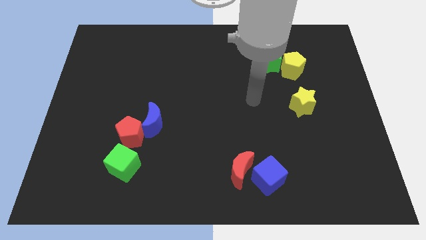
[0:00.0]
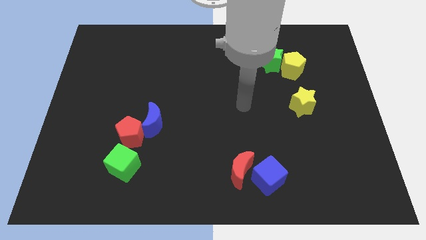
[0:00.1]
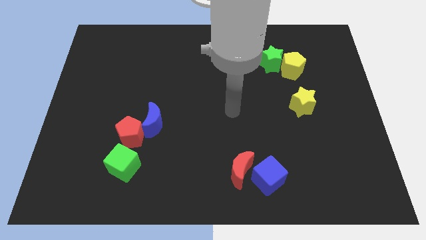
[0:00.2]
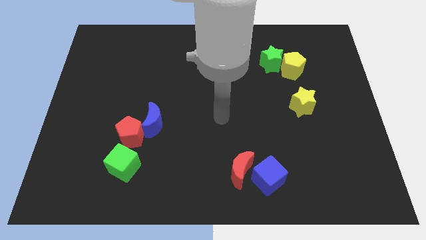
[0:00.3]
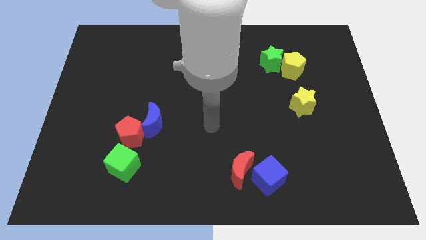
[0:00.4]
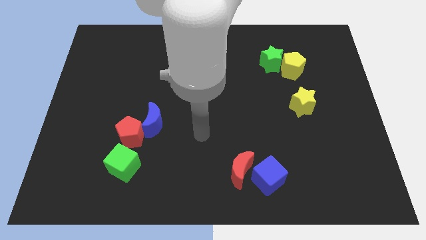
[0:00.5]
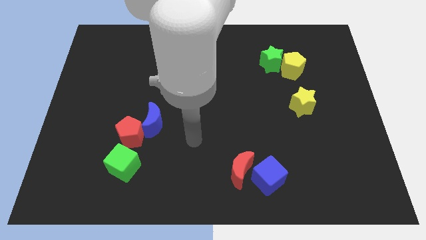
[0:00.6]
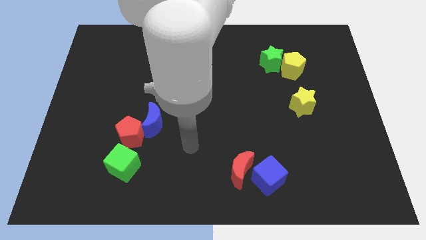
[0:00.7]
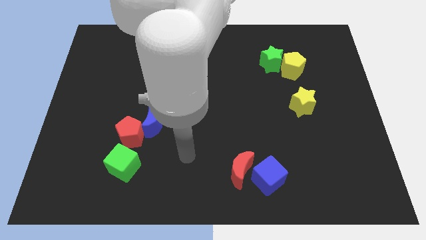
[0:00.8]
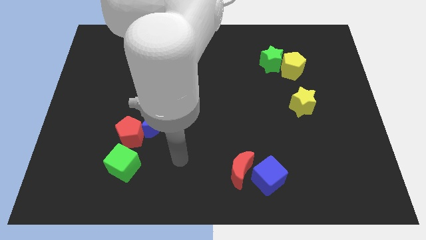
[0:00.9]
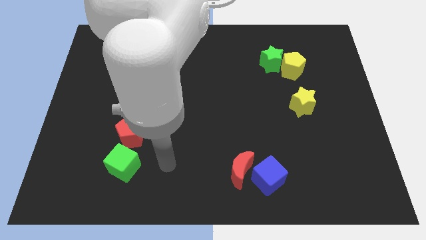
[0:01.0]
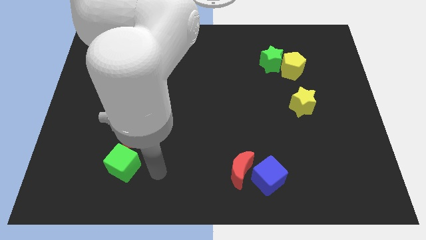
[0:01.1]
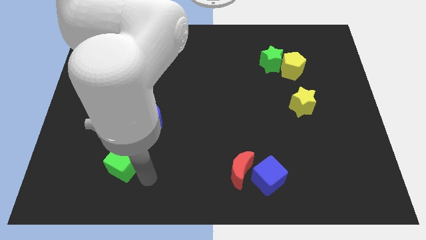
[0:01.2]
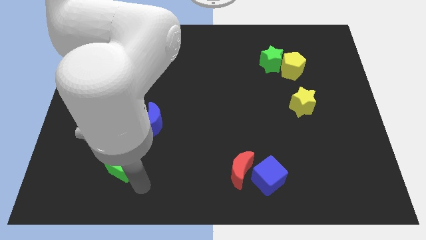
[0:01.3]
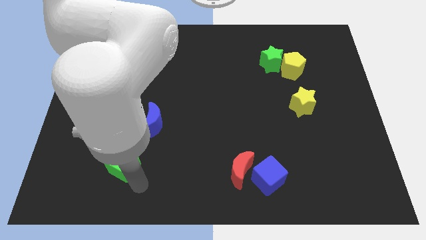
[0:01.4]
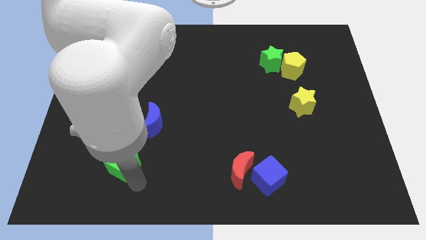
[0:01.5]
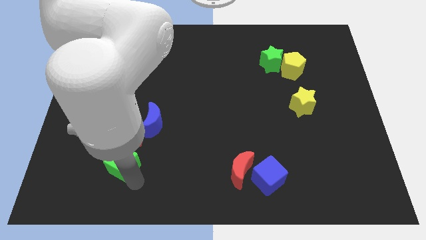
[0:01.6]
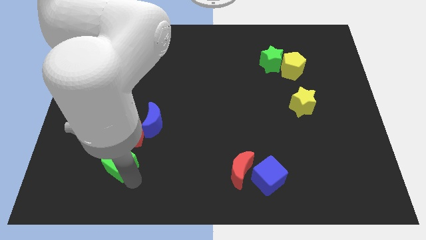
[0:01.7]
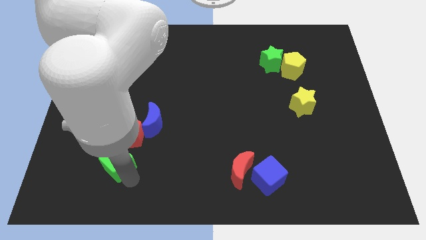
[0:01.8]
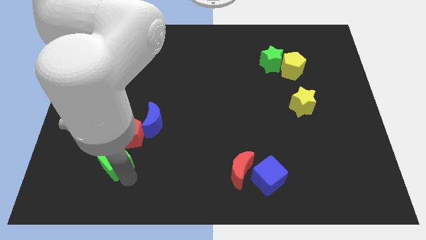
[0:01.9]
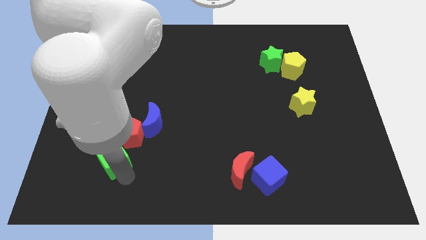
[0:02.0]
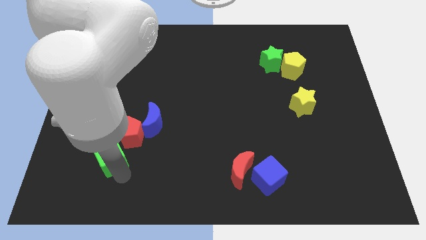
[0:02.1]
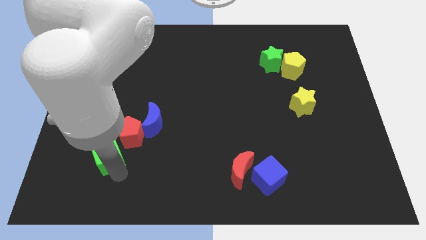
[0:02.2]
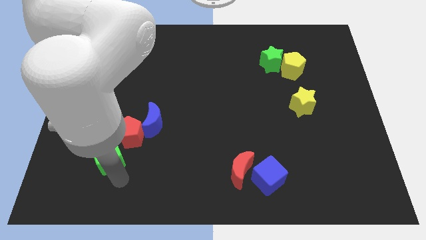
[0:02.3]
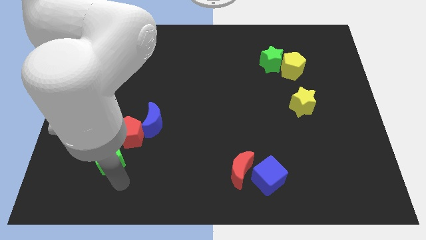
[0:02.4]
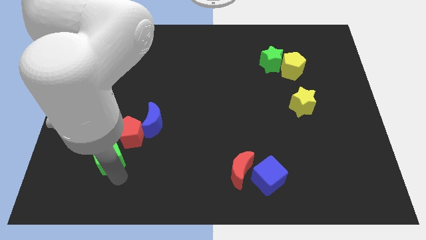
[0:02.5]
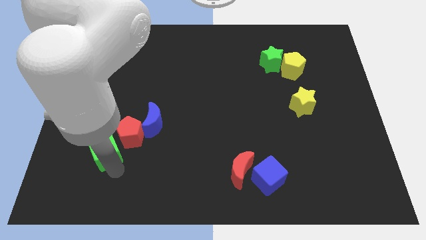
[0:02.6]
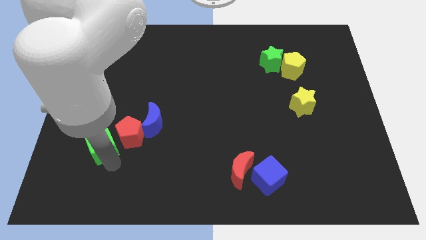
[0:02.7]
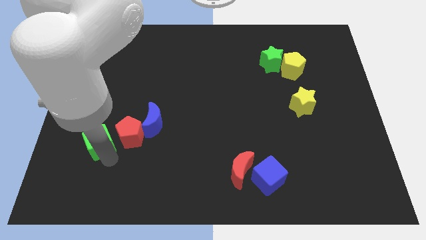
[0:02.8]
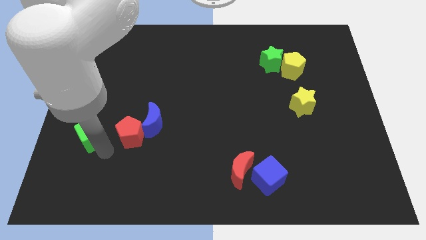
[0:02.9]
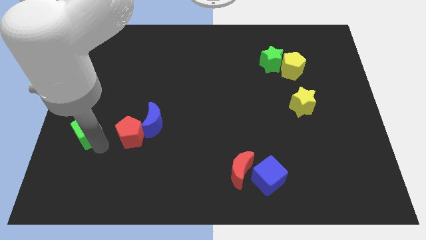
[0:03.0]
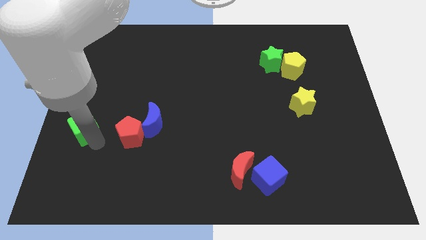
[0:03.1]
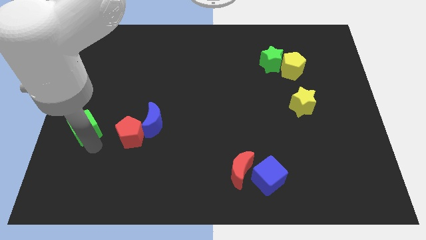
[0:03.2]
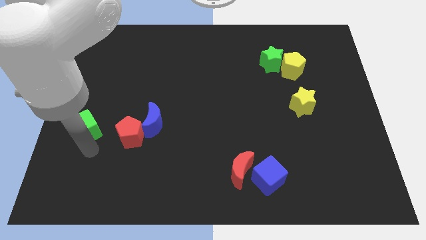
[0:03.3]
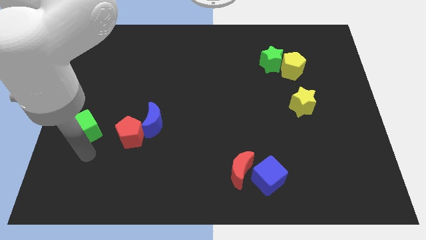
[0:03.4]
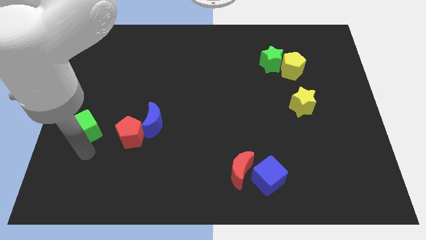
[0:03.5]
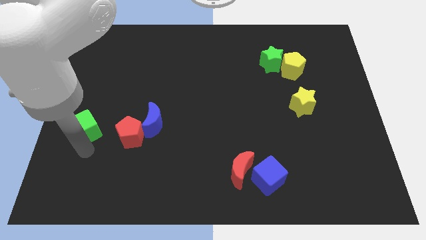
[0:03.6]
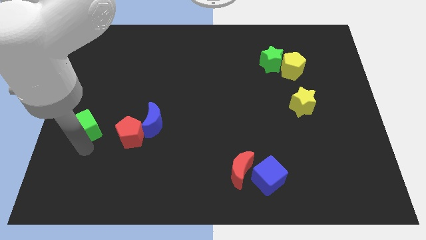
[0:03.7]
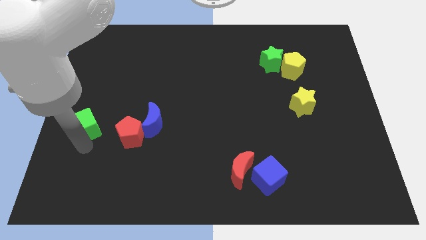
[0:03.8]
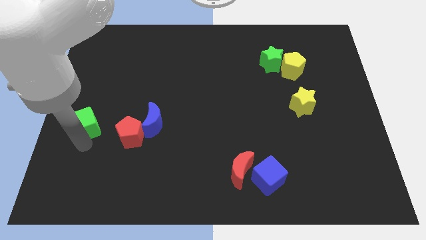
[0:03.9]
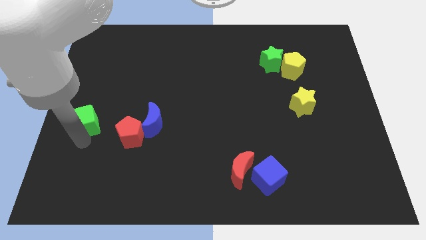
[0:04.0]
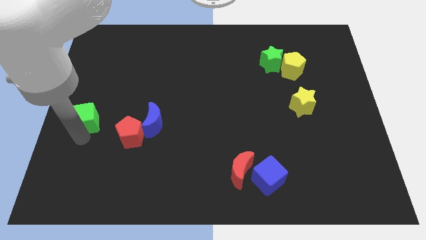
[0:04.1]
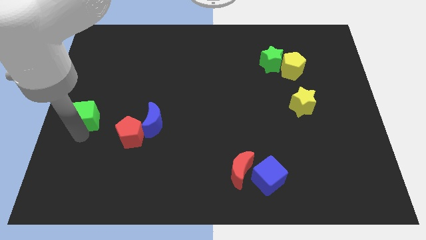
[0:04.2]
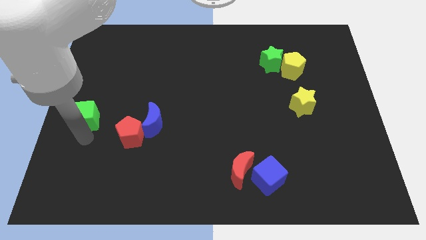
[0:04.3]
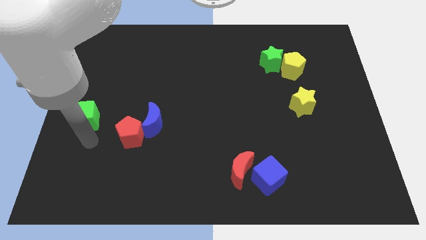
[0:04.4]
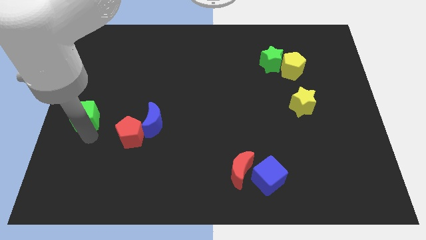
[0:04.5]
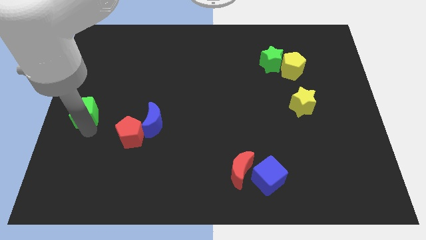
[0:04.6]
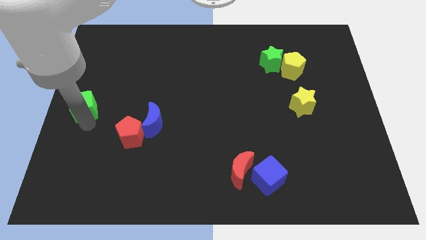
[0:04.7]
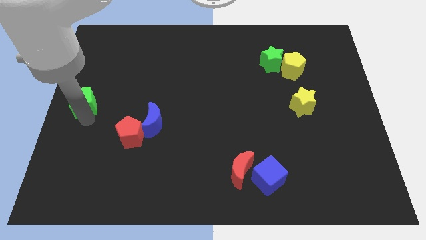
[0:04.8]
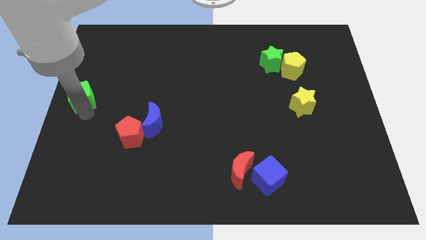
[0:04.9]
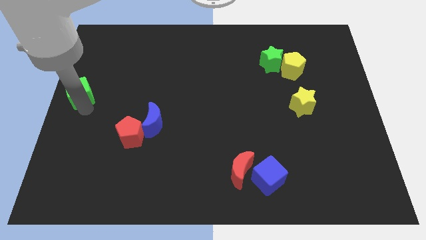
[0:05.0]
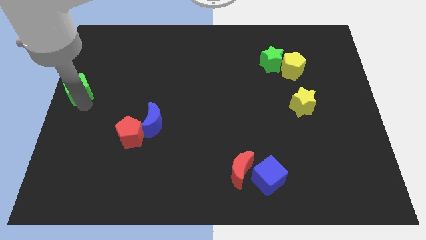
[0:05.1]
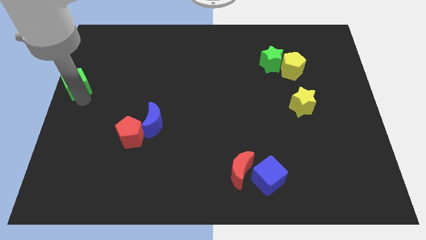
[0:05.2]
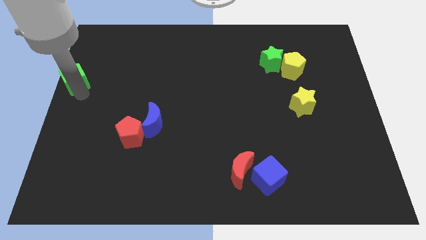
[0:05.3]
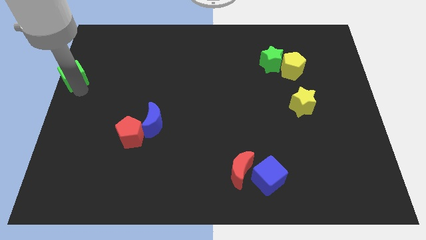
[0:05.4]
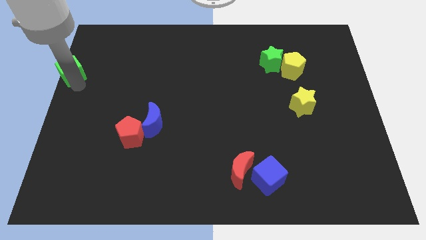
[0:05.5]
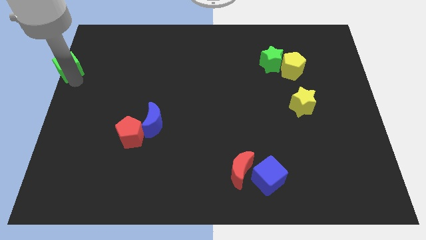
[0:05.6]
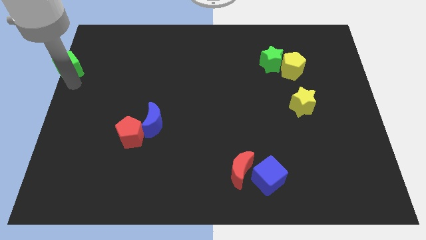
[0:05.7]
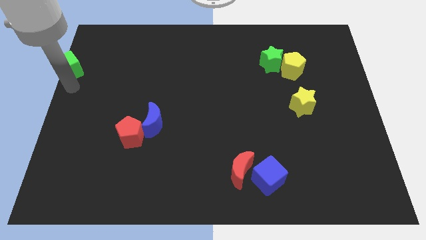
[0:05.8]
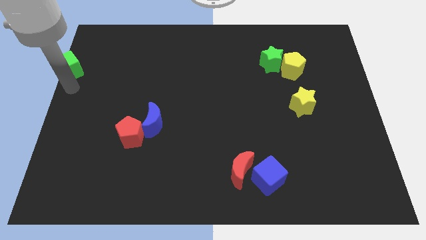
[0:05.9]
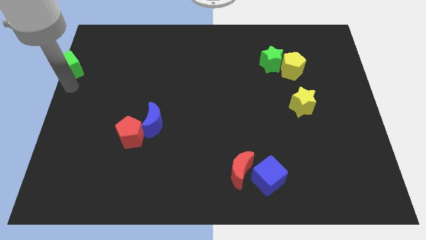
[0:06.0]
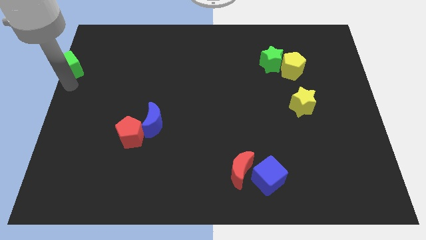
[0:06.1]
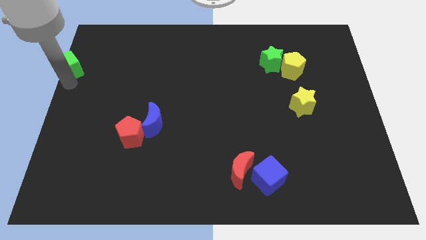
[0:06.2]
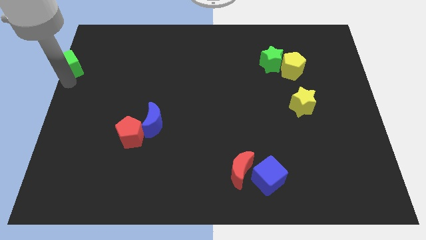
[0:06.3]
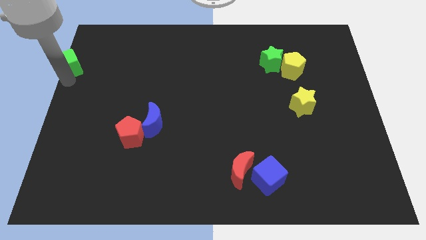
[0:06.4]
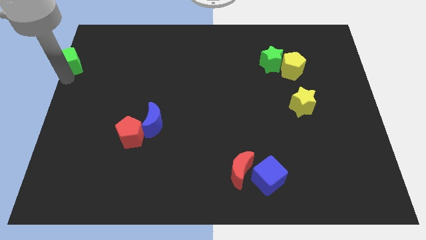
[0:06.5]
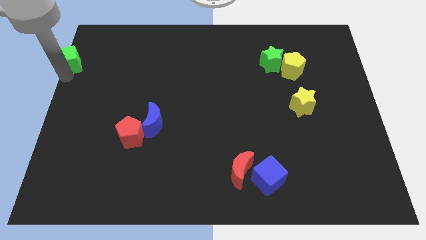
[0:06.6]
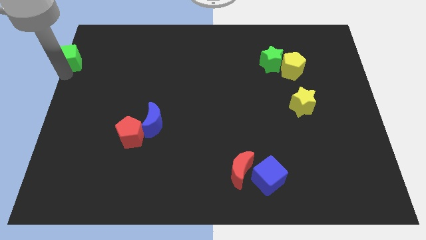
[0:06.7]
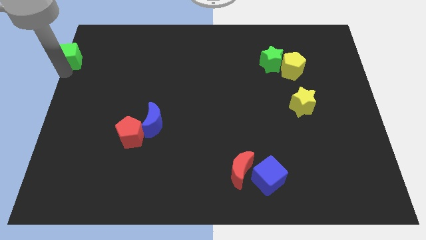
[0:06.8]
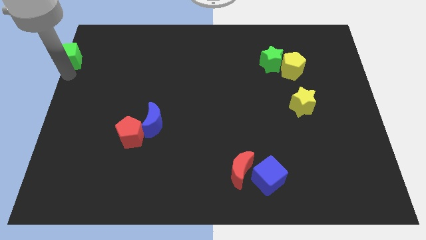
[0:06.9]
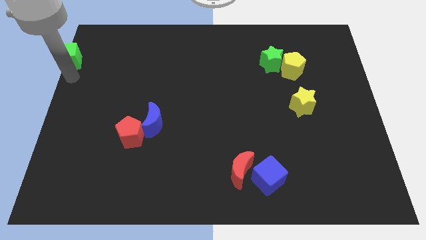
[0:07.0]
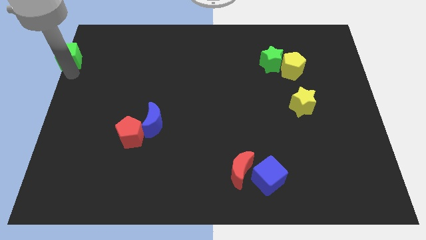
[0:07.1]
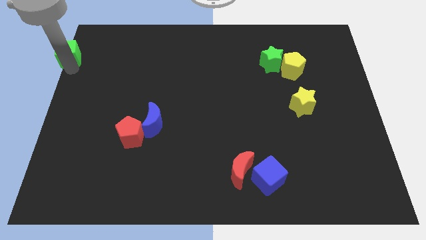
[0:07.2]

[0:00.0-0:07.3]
push the green cube to the upper left corner
